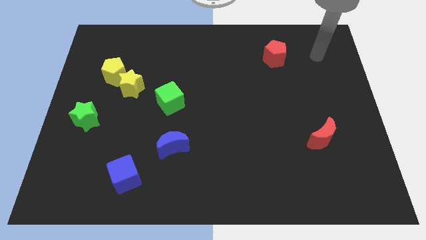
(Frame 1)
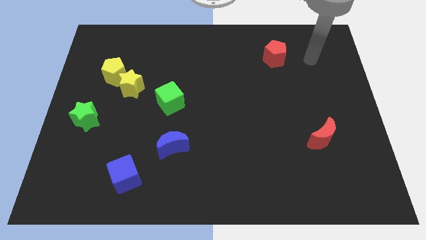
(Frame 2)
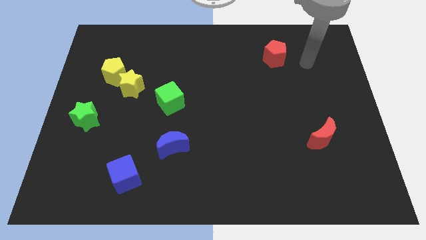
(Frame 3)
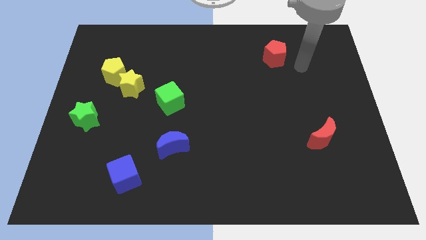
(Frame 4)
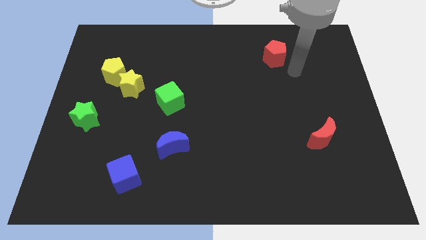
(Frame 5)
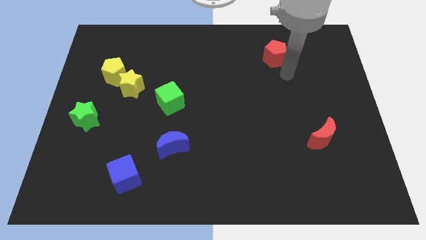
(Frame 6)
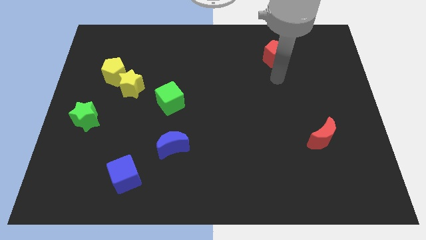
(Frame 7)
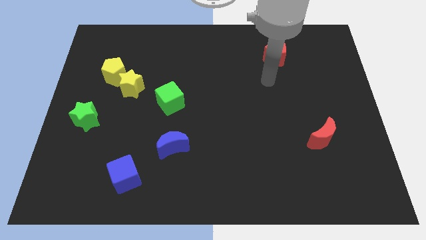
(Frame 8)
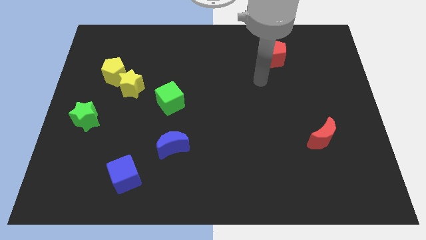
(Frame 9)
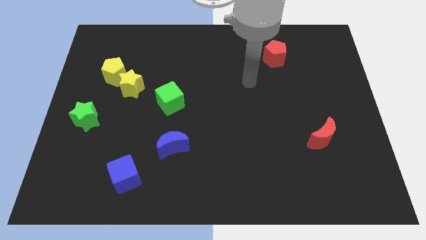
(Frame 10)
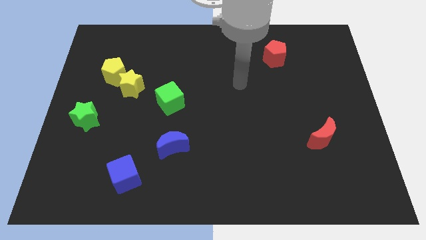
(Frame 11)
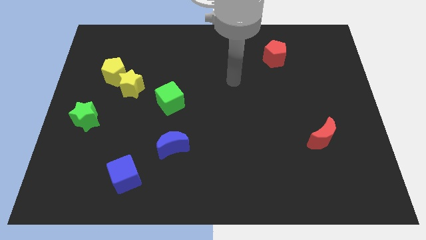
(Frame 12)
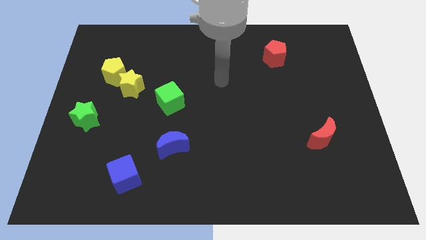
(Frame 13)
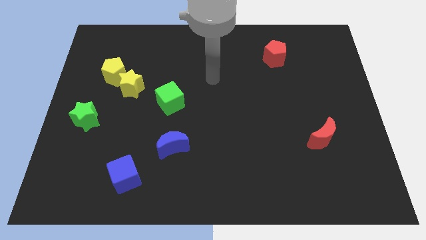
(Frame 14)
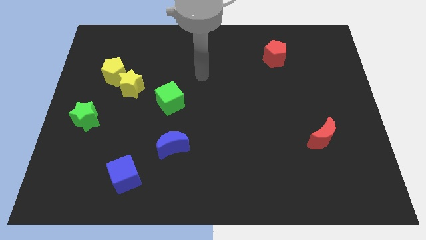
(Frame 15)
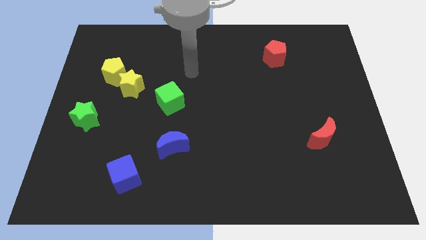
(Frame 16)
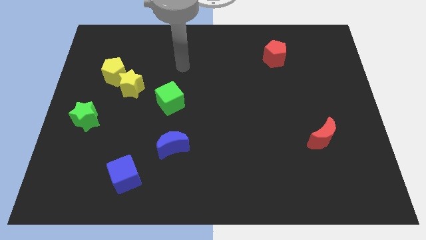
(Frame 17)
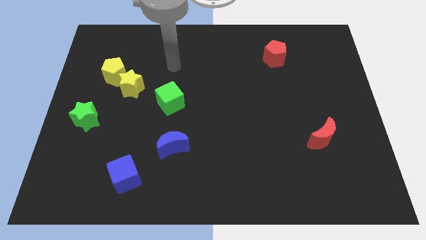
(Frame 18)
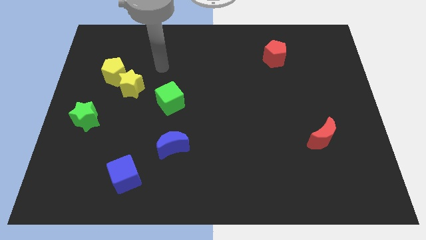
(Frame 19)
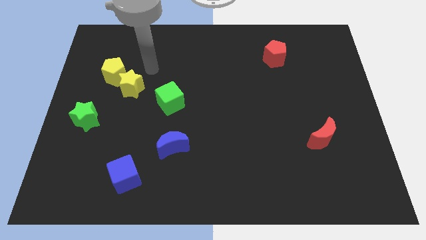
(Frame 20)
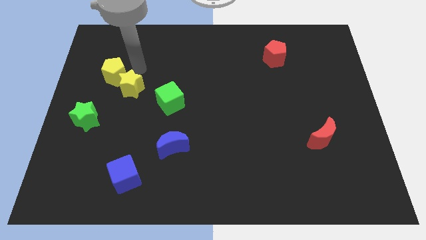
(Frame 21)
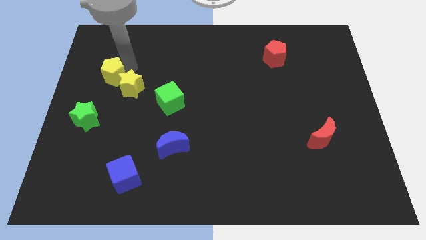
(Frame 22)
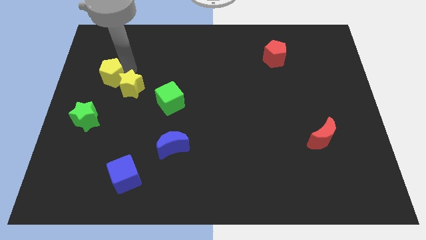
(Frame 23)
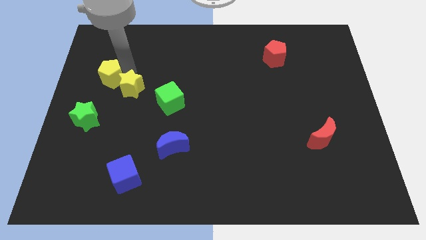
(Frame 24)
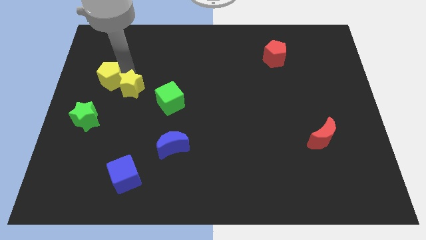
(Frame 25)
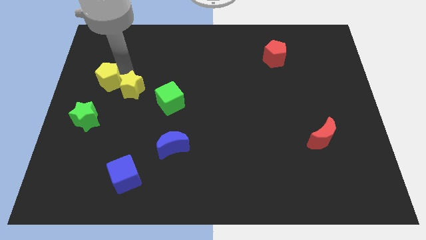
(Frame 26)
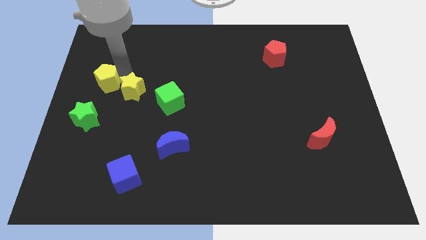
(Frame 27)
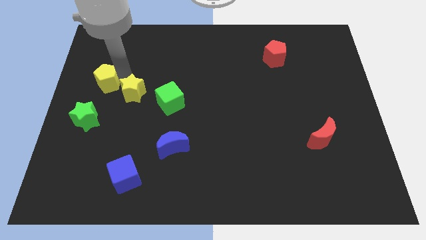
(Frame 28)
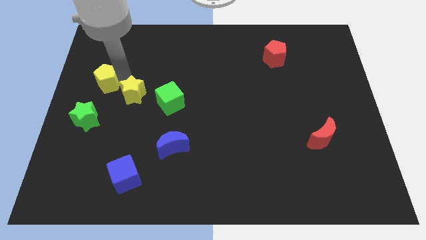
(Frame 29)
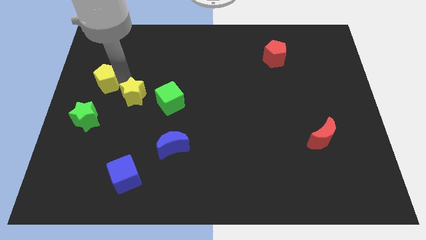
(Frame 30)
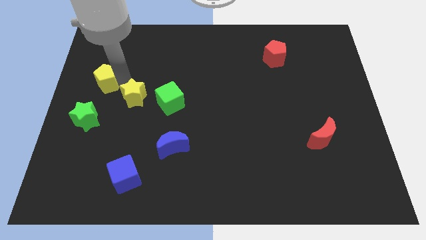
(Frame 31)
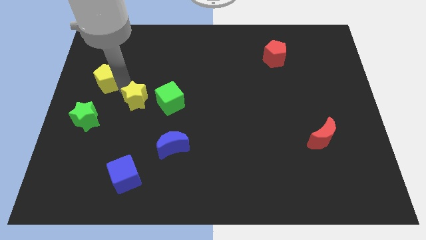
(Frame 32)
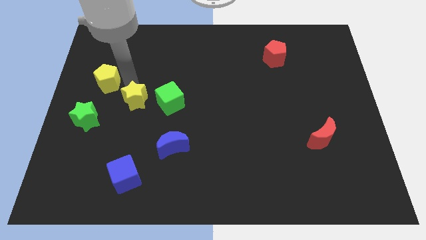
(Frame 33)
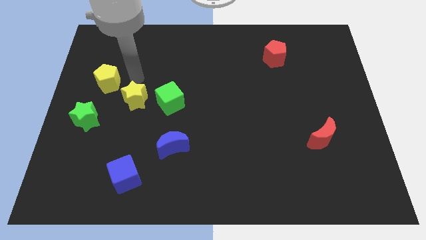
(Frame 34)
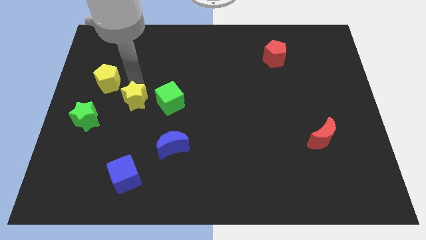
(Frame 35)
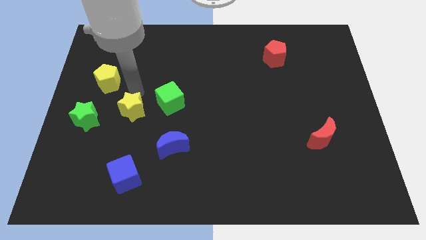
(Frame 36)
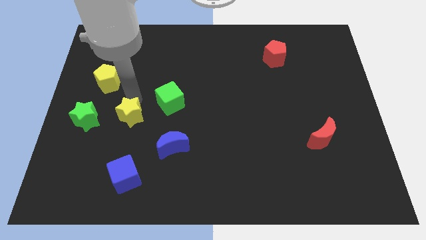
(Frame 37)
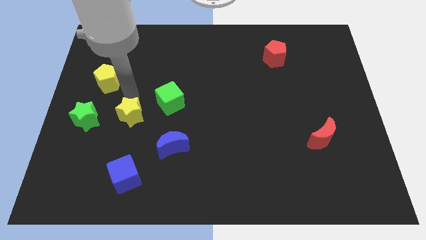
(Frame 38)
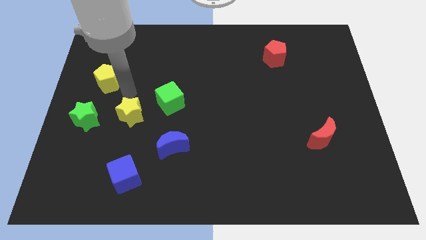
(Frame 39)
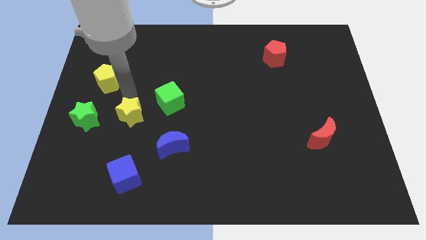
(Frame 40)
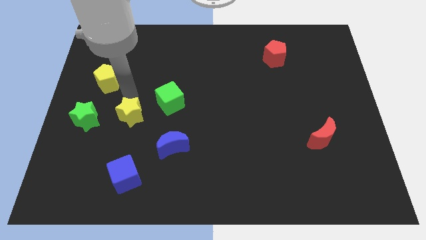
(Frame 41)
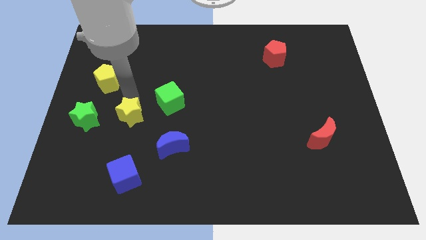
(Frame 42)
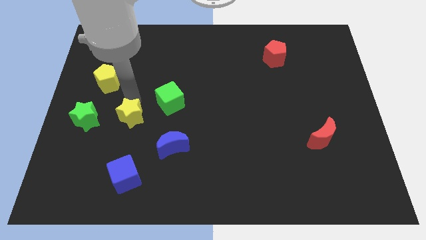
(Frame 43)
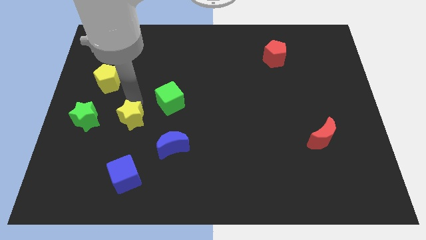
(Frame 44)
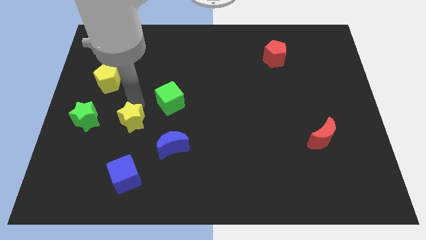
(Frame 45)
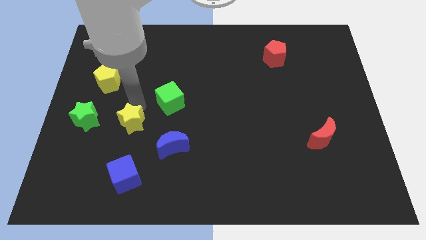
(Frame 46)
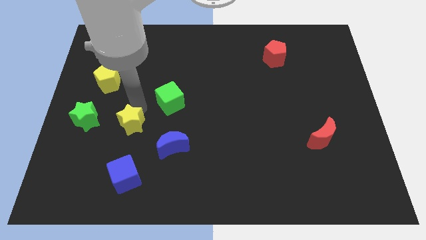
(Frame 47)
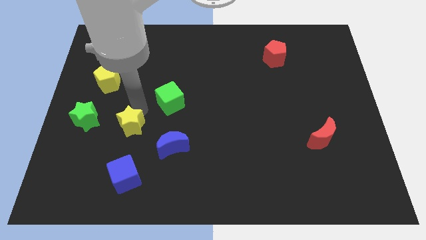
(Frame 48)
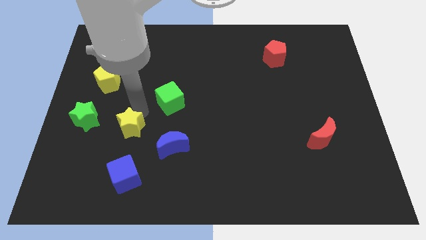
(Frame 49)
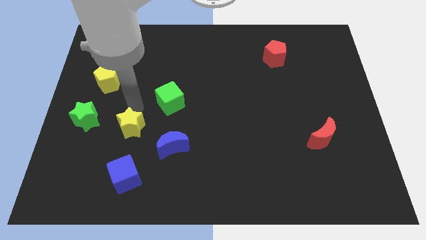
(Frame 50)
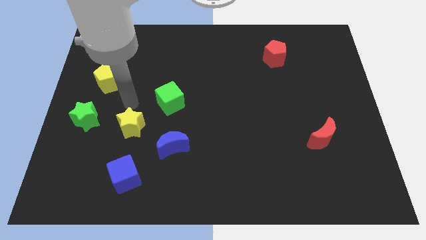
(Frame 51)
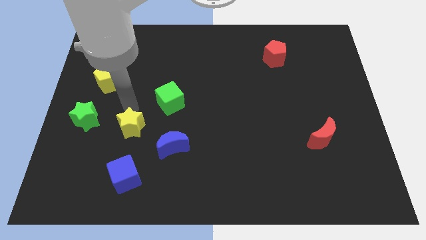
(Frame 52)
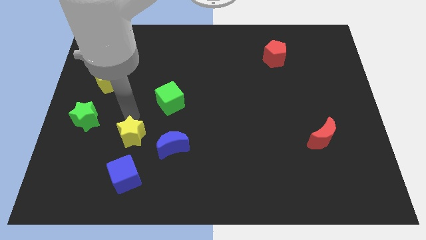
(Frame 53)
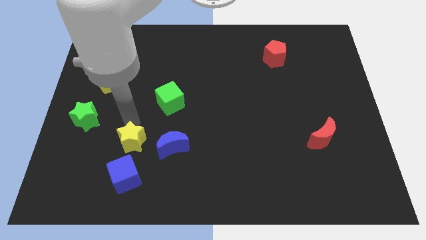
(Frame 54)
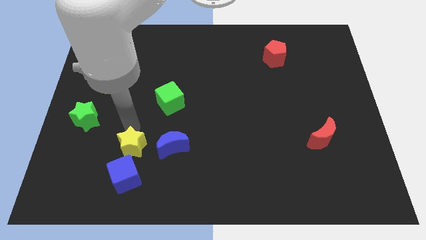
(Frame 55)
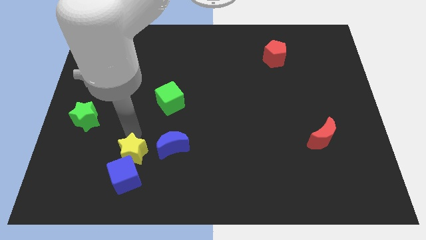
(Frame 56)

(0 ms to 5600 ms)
push the yellow star to the blue cube
